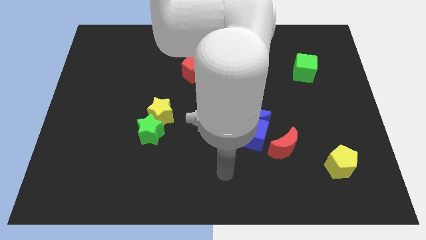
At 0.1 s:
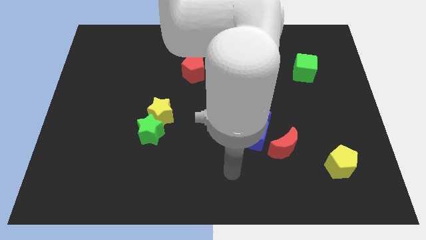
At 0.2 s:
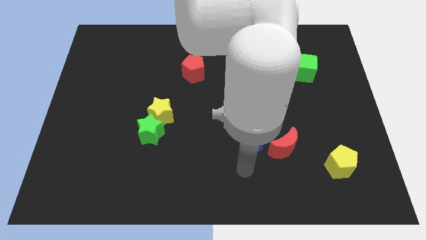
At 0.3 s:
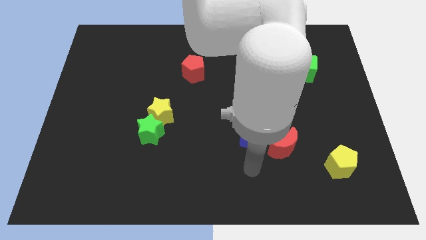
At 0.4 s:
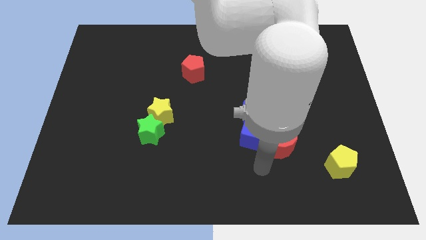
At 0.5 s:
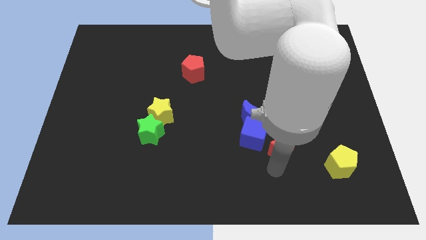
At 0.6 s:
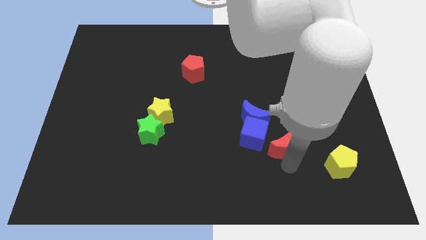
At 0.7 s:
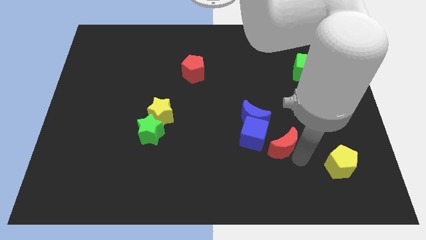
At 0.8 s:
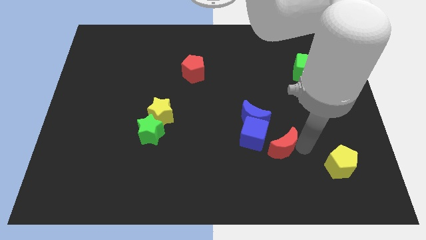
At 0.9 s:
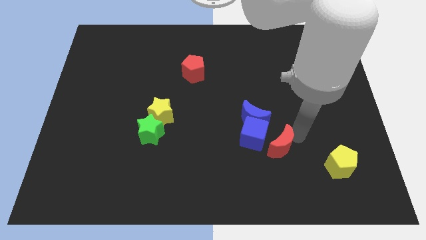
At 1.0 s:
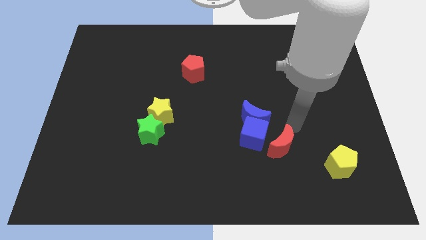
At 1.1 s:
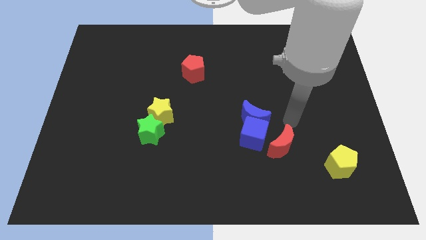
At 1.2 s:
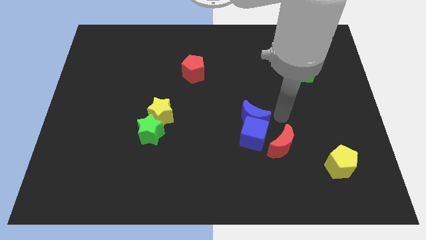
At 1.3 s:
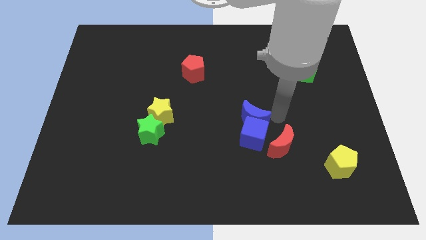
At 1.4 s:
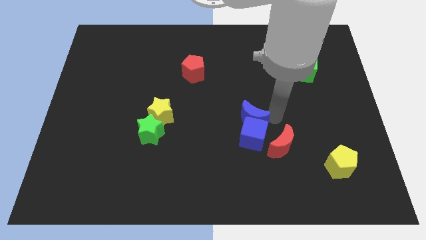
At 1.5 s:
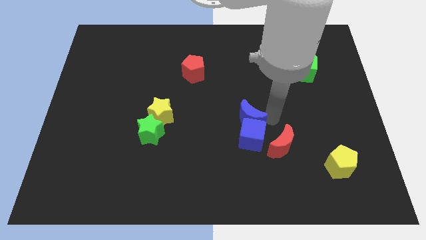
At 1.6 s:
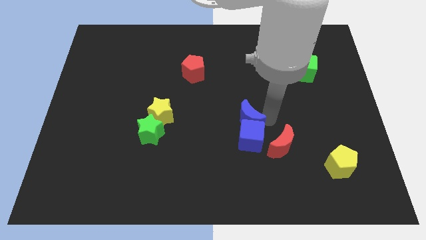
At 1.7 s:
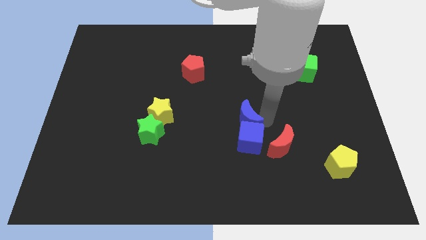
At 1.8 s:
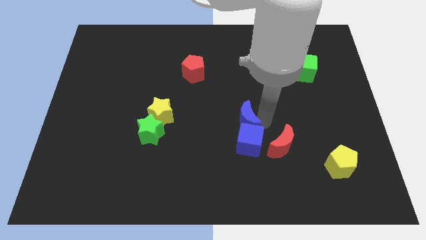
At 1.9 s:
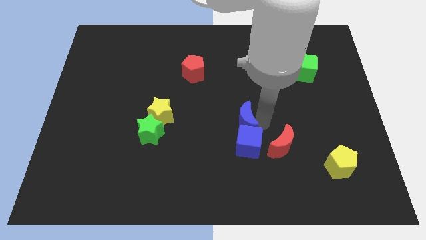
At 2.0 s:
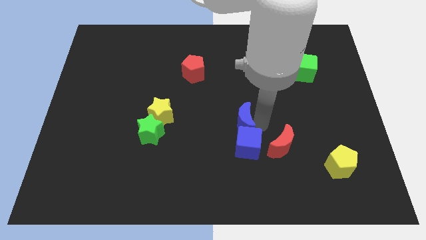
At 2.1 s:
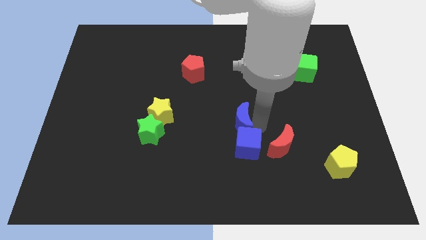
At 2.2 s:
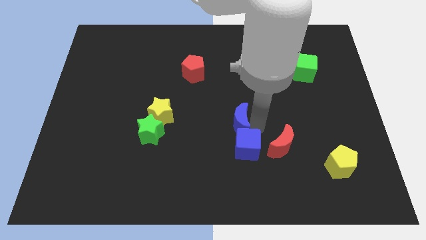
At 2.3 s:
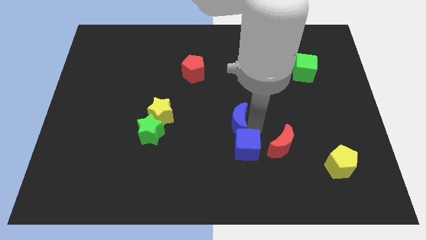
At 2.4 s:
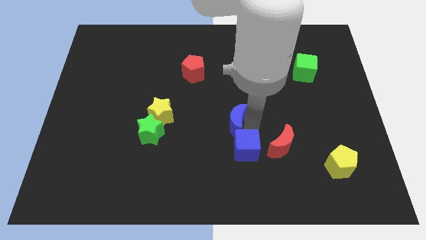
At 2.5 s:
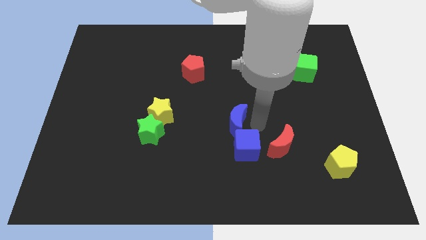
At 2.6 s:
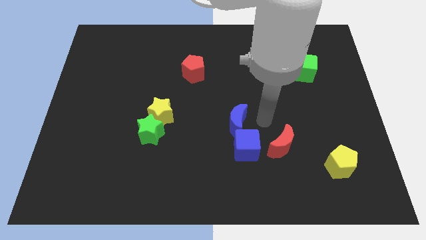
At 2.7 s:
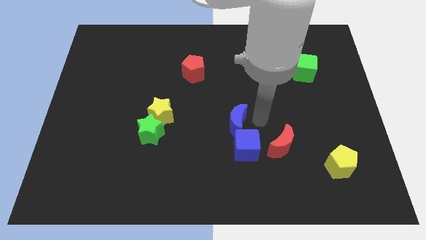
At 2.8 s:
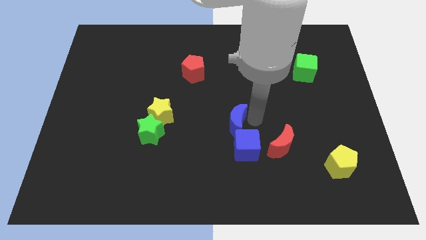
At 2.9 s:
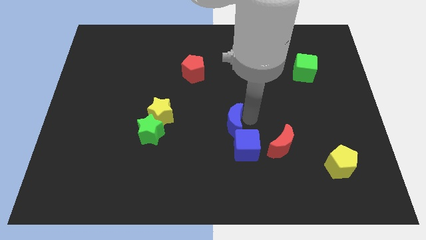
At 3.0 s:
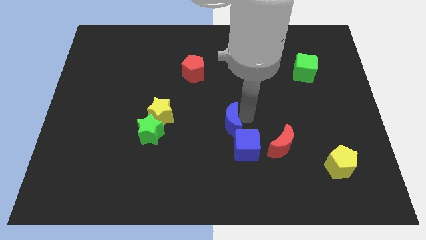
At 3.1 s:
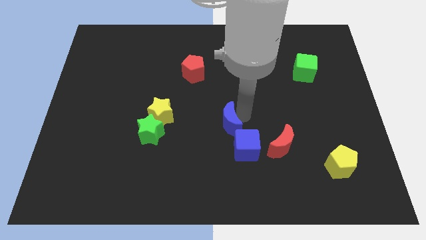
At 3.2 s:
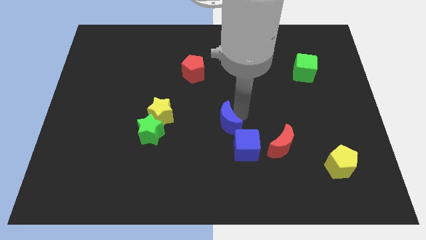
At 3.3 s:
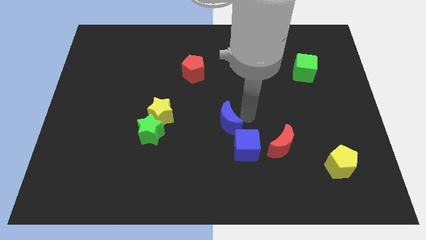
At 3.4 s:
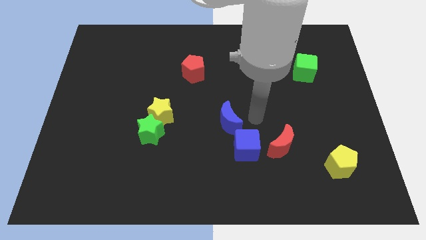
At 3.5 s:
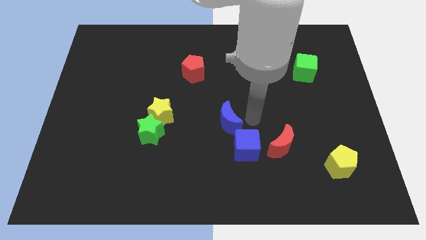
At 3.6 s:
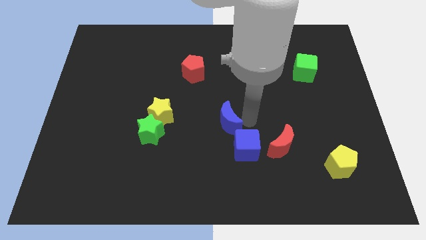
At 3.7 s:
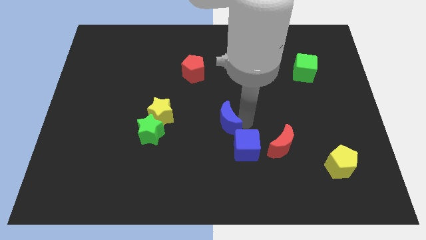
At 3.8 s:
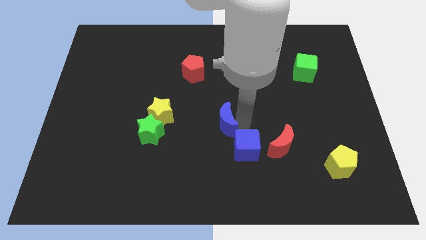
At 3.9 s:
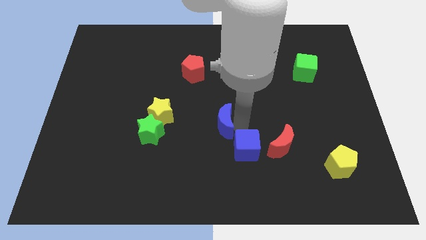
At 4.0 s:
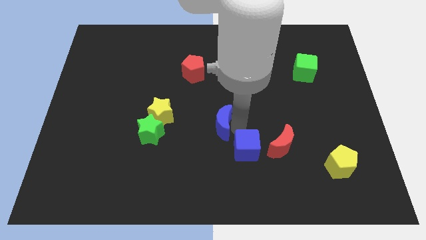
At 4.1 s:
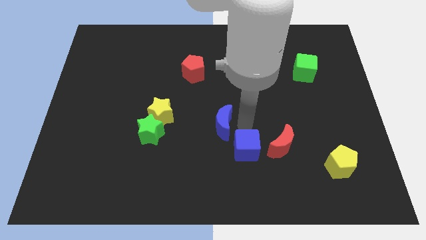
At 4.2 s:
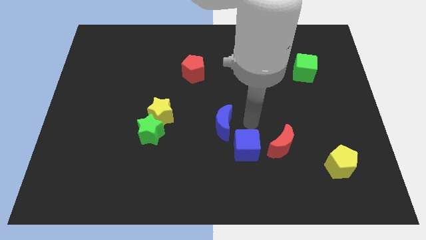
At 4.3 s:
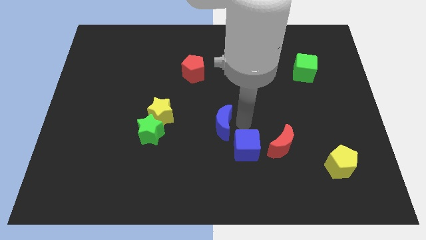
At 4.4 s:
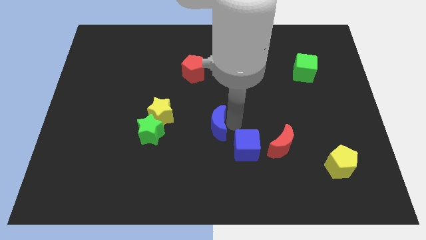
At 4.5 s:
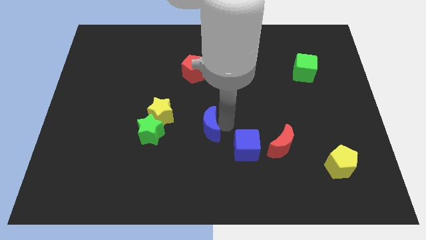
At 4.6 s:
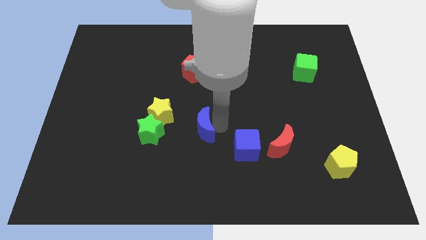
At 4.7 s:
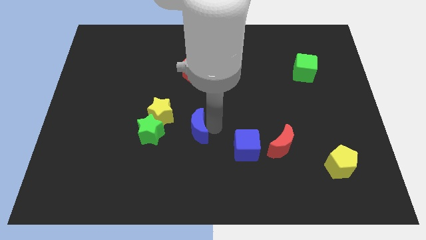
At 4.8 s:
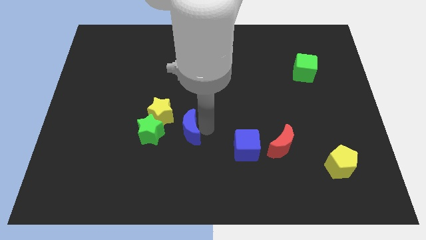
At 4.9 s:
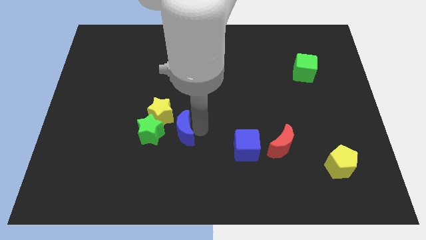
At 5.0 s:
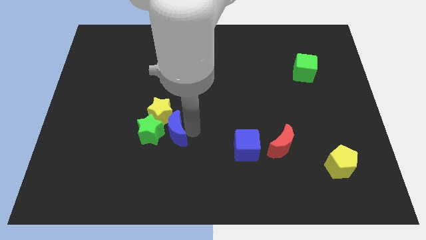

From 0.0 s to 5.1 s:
push the blue moon to the green star

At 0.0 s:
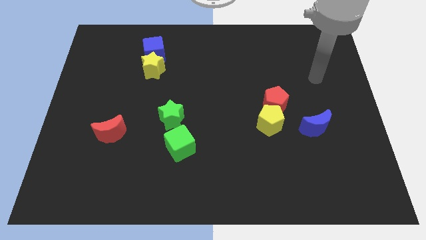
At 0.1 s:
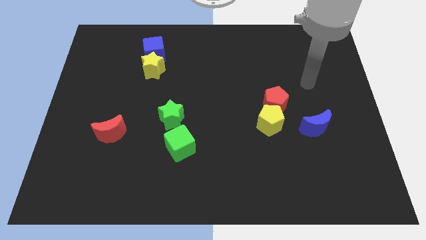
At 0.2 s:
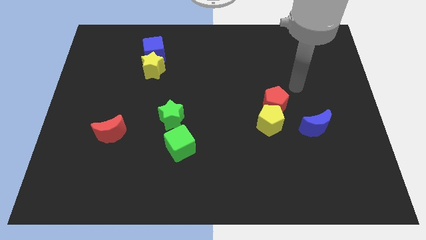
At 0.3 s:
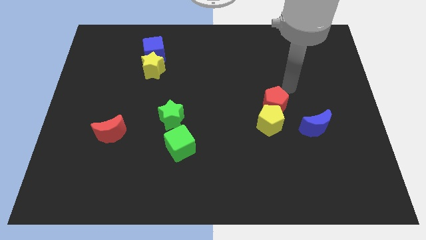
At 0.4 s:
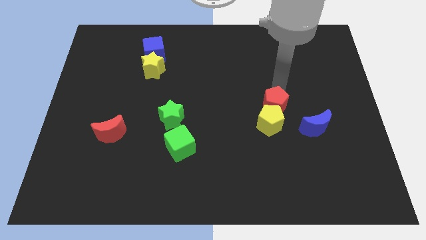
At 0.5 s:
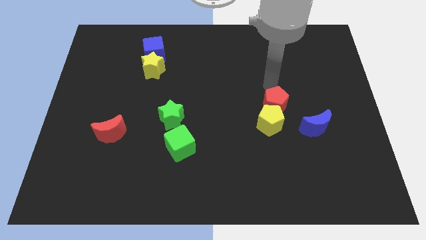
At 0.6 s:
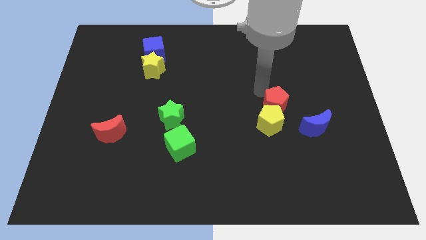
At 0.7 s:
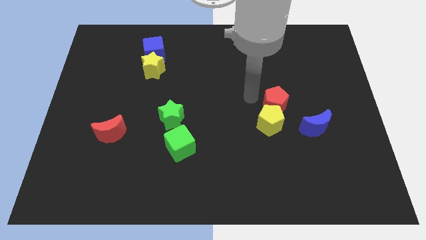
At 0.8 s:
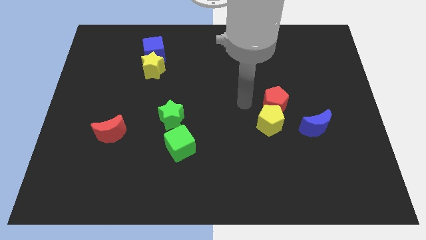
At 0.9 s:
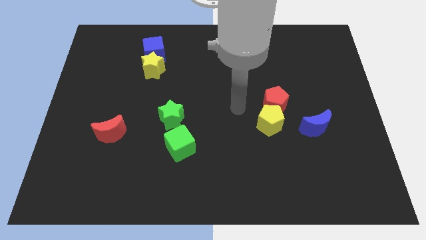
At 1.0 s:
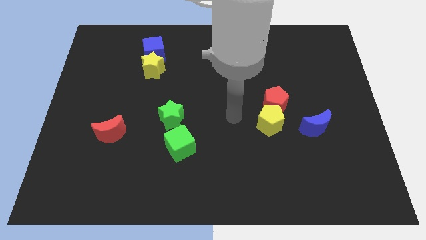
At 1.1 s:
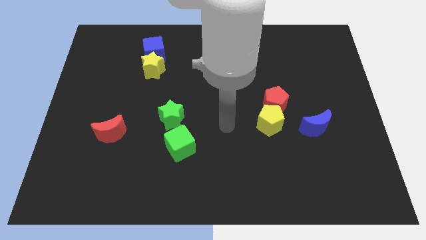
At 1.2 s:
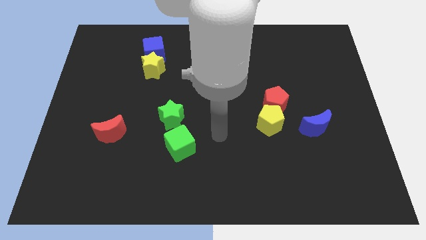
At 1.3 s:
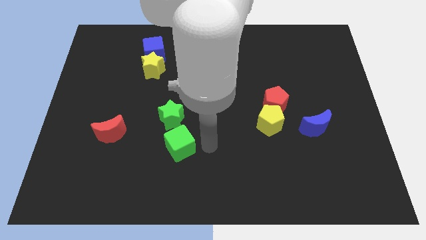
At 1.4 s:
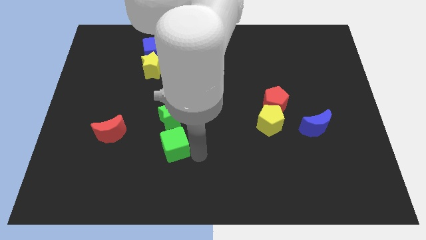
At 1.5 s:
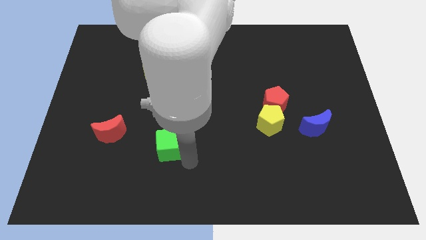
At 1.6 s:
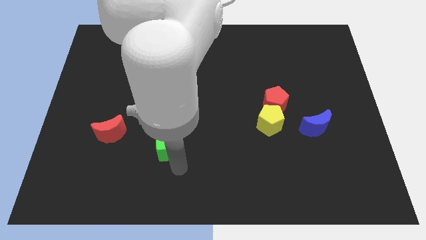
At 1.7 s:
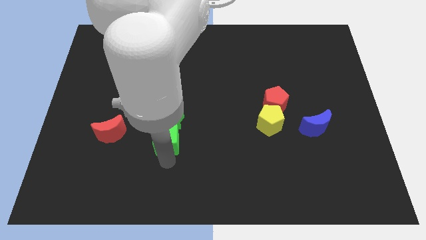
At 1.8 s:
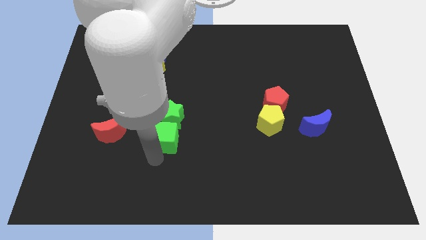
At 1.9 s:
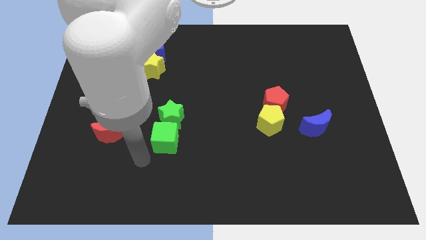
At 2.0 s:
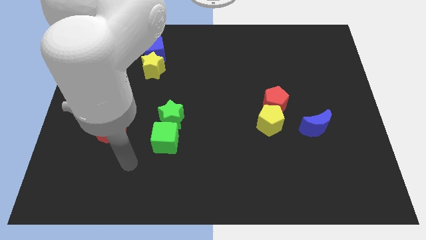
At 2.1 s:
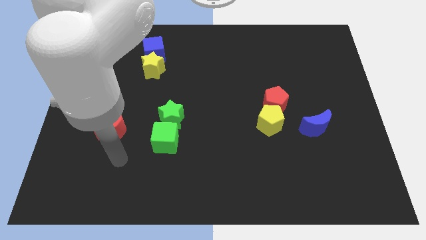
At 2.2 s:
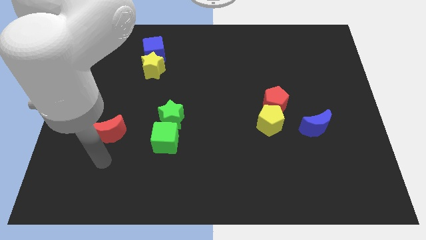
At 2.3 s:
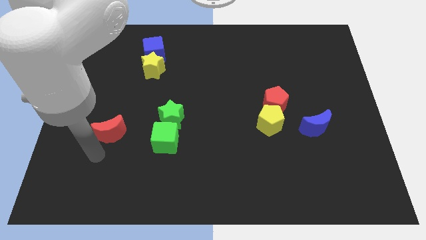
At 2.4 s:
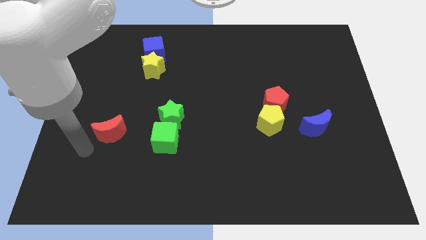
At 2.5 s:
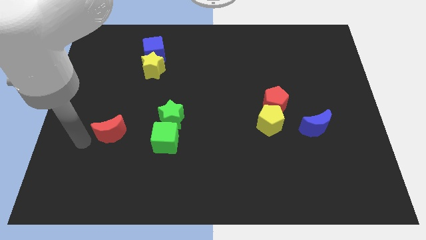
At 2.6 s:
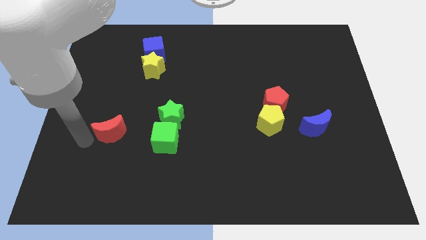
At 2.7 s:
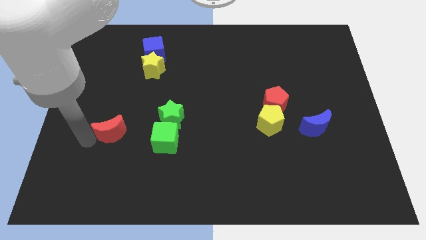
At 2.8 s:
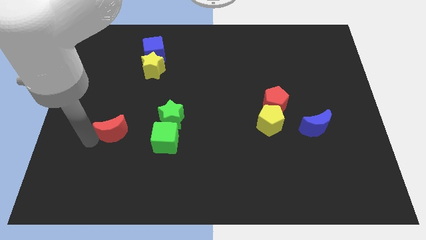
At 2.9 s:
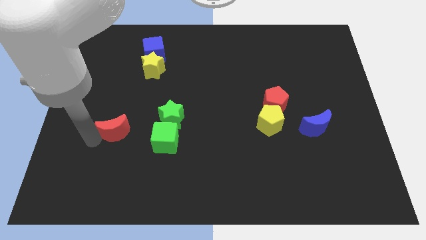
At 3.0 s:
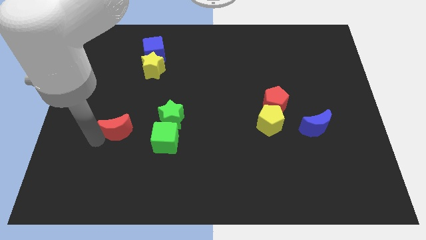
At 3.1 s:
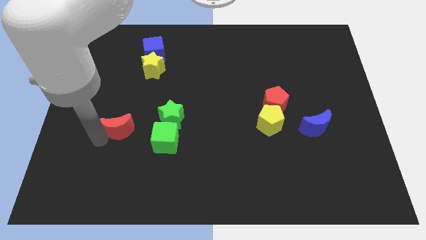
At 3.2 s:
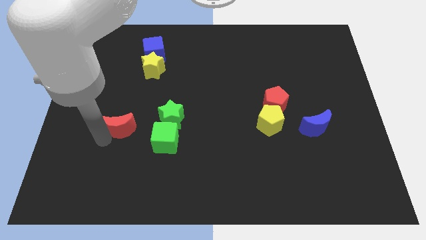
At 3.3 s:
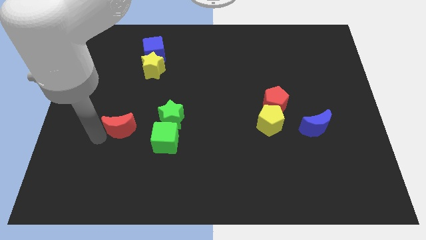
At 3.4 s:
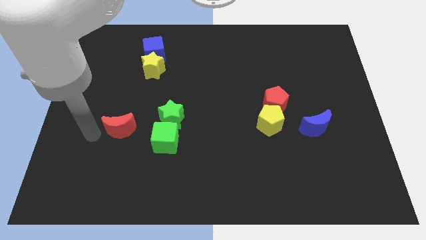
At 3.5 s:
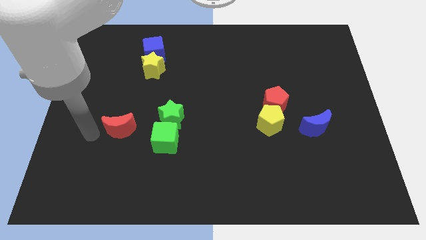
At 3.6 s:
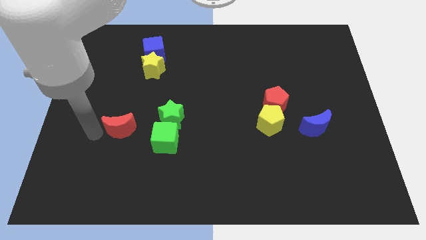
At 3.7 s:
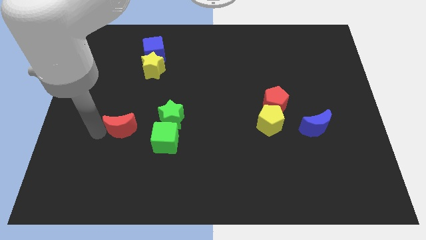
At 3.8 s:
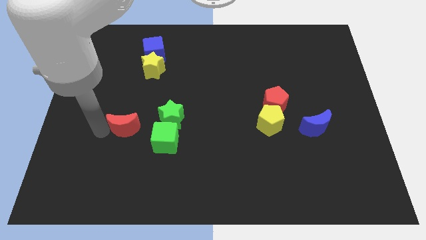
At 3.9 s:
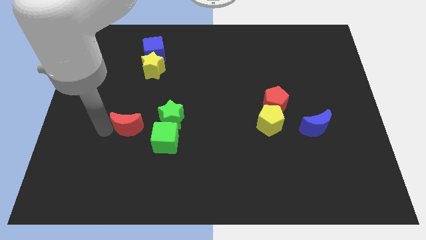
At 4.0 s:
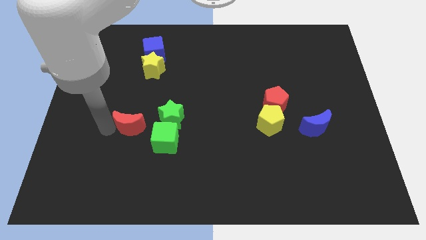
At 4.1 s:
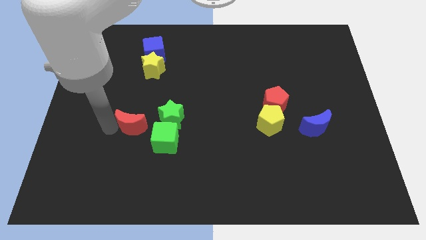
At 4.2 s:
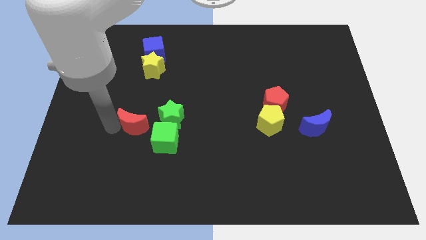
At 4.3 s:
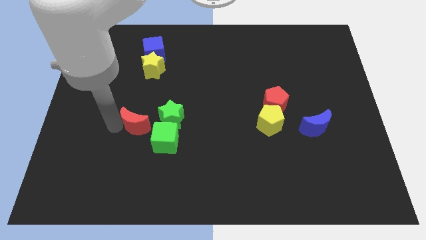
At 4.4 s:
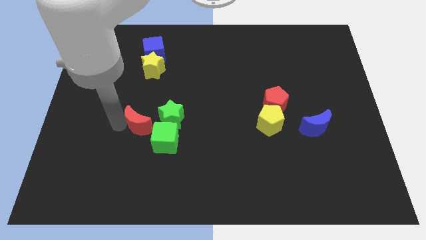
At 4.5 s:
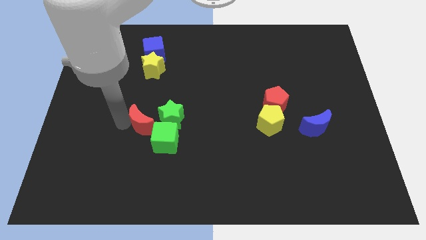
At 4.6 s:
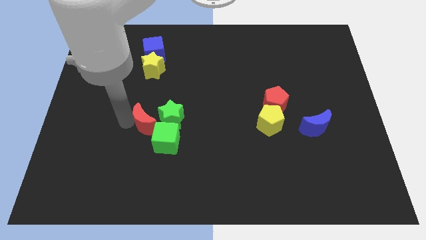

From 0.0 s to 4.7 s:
put the red moon towards the green star
